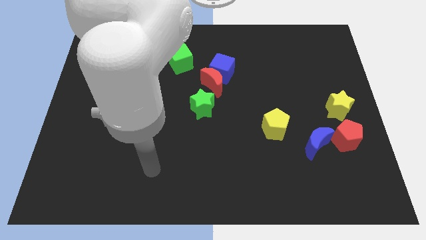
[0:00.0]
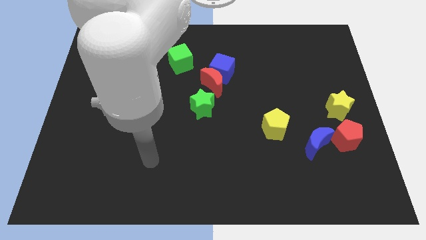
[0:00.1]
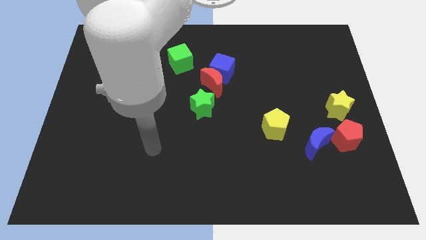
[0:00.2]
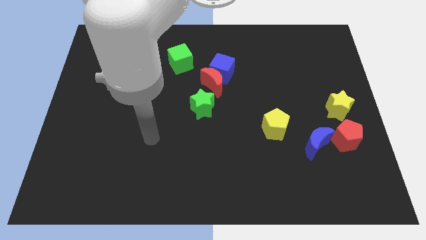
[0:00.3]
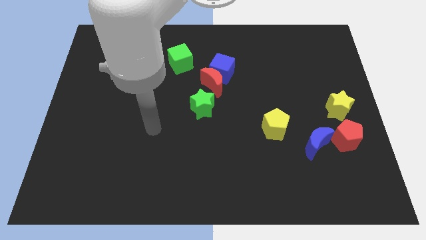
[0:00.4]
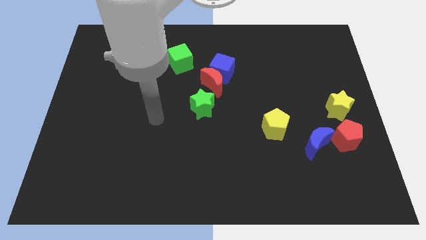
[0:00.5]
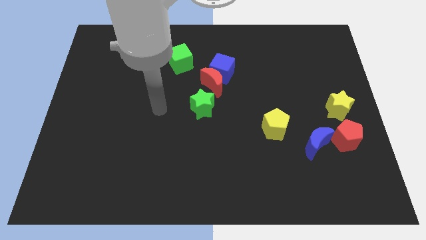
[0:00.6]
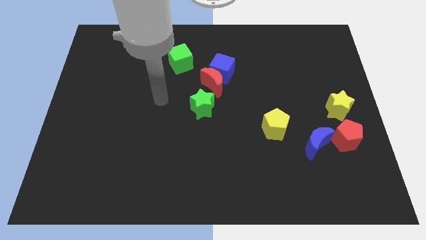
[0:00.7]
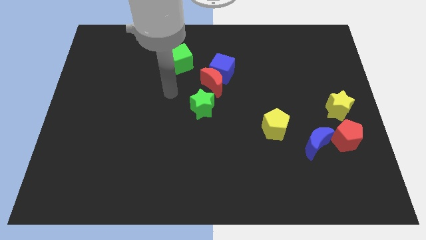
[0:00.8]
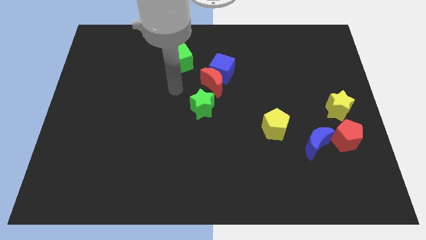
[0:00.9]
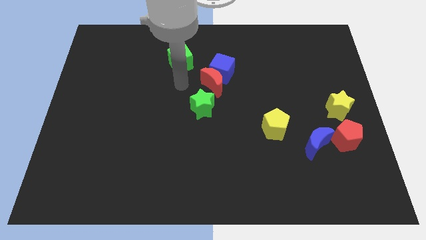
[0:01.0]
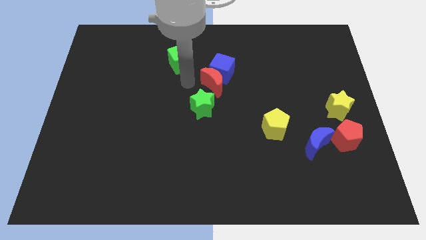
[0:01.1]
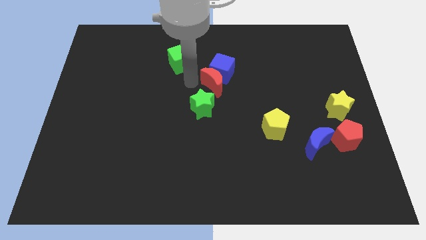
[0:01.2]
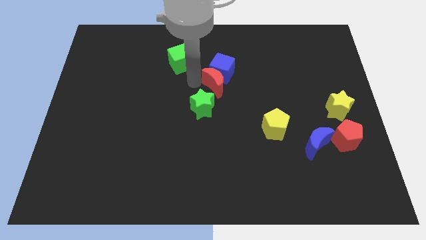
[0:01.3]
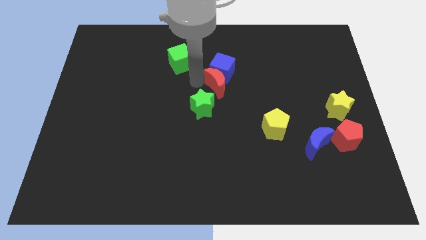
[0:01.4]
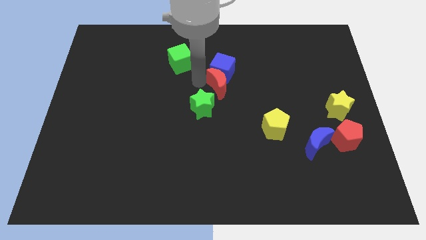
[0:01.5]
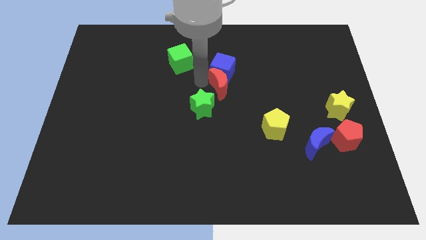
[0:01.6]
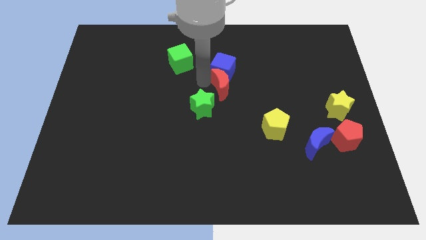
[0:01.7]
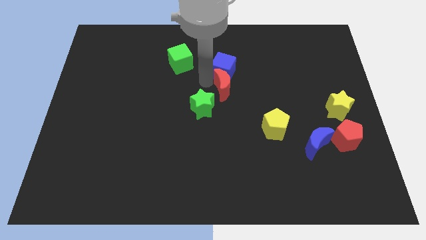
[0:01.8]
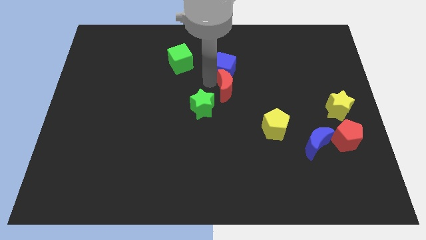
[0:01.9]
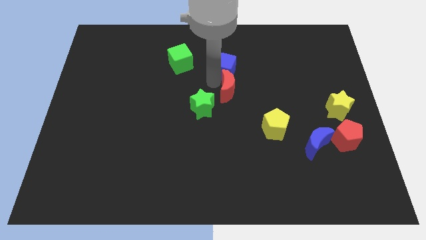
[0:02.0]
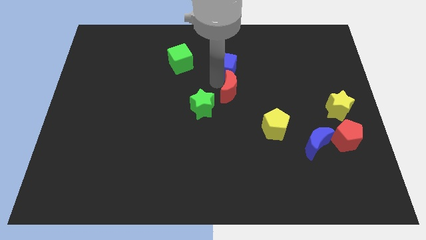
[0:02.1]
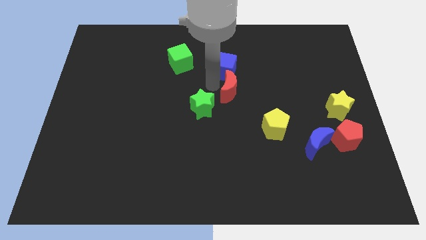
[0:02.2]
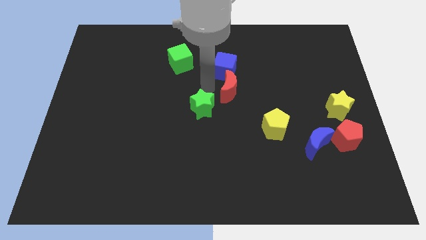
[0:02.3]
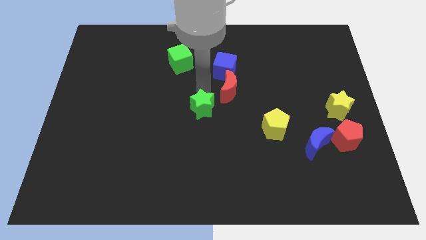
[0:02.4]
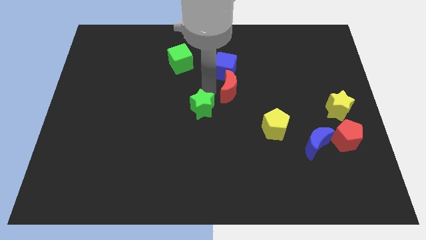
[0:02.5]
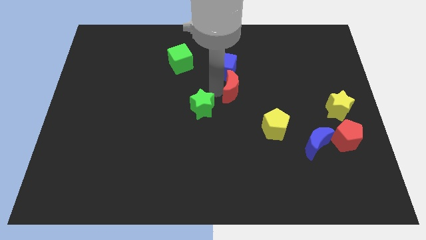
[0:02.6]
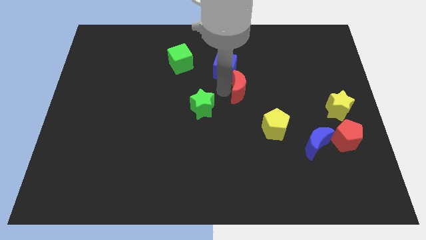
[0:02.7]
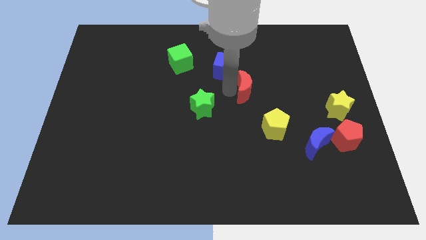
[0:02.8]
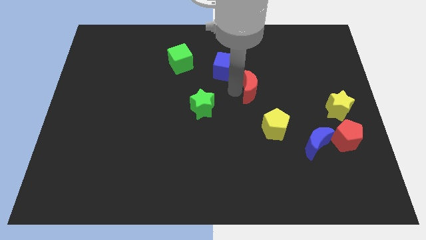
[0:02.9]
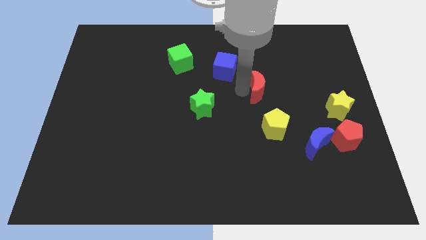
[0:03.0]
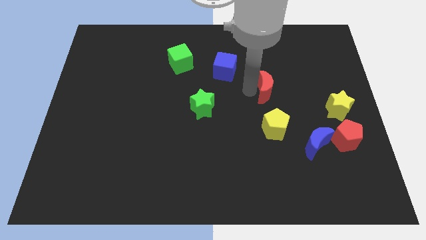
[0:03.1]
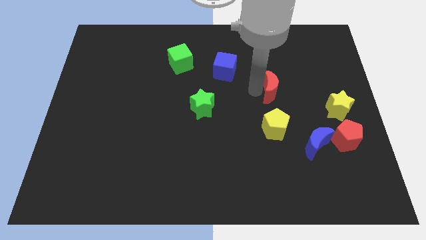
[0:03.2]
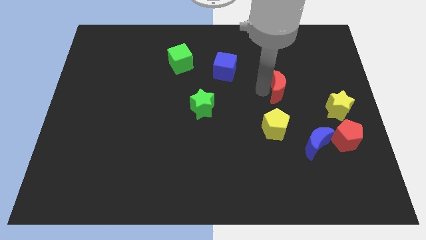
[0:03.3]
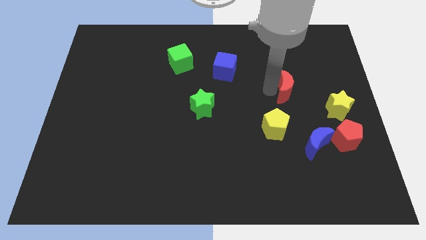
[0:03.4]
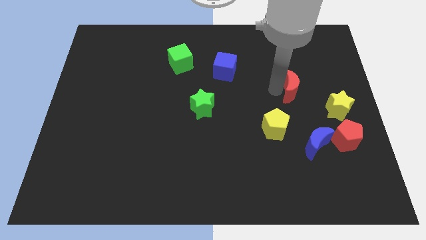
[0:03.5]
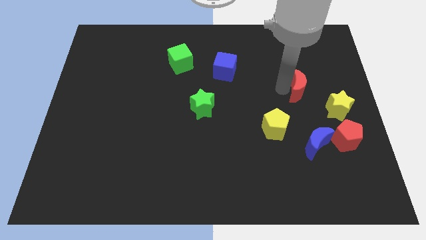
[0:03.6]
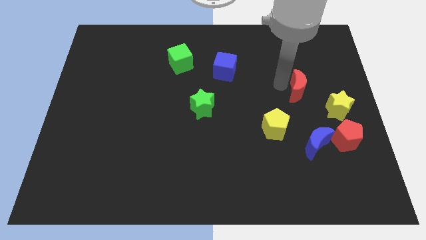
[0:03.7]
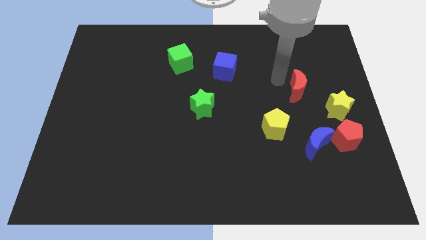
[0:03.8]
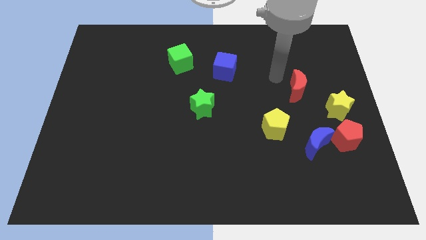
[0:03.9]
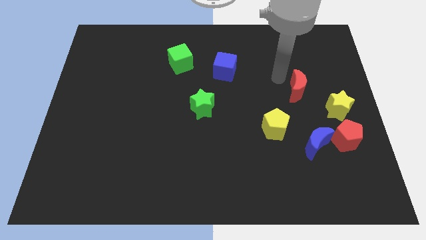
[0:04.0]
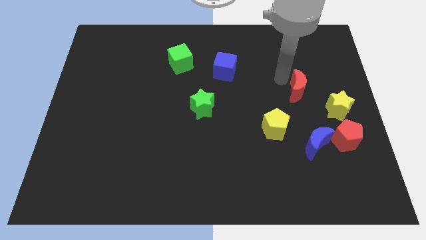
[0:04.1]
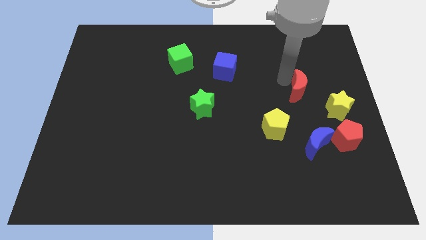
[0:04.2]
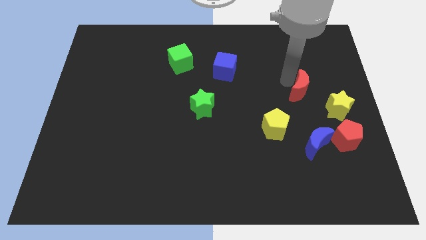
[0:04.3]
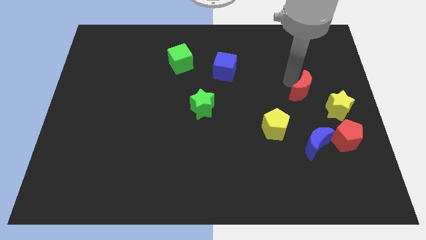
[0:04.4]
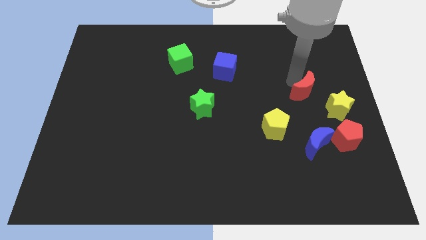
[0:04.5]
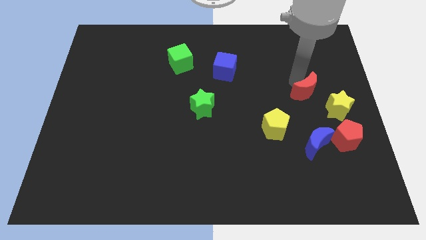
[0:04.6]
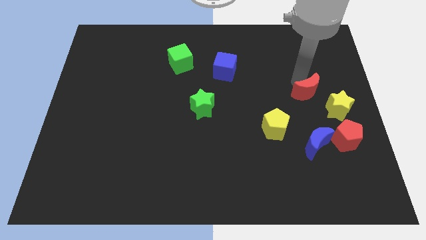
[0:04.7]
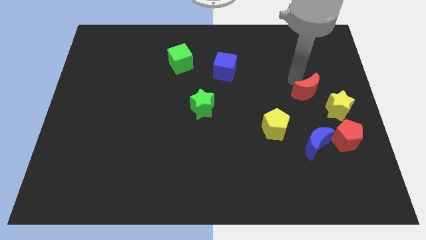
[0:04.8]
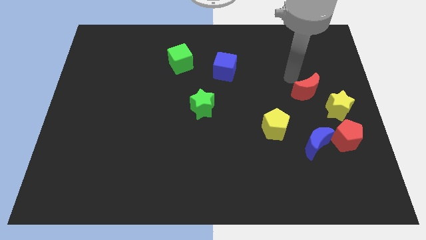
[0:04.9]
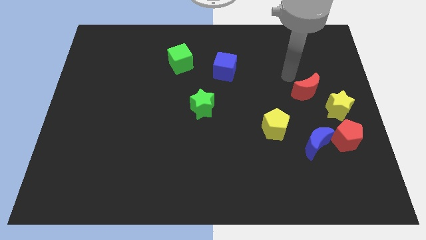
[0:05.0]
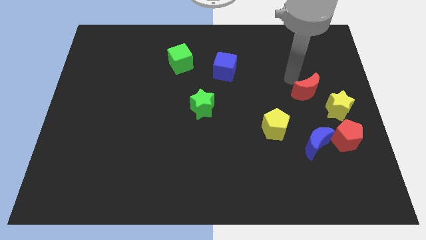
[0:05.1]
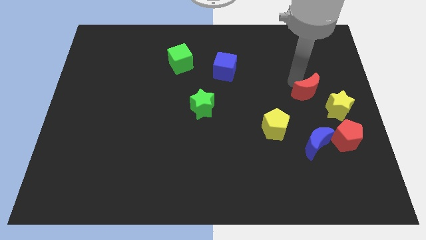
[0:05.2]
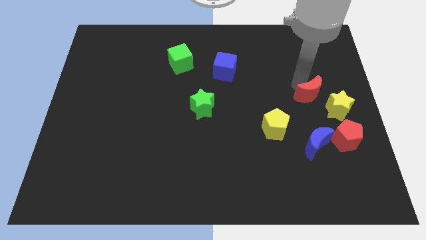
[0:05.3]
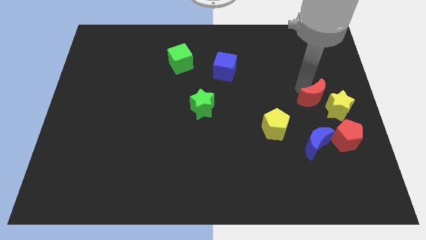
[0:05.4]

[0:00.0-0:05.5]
move the red moon towards the yellow star

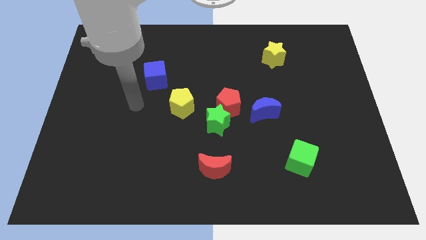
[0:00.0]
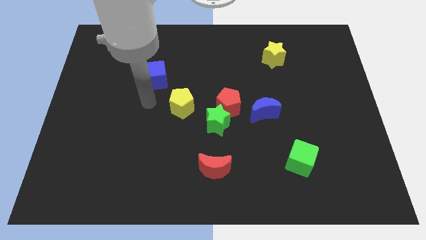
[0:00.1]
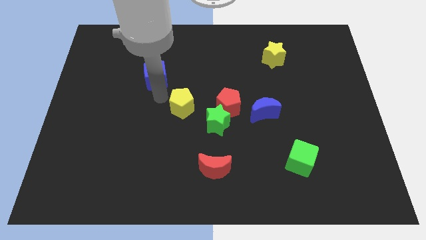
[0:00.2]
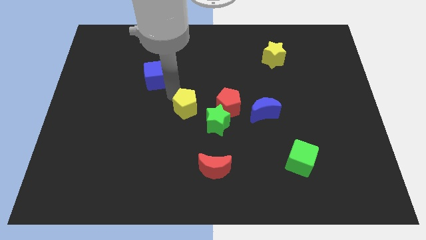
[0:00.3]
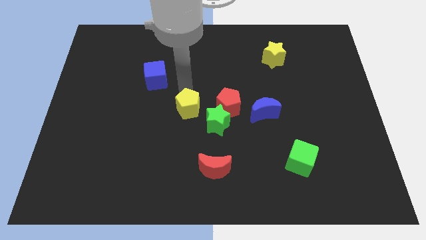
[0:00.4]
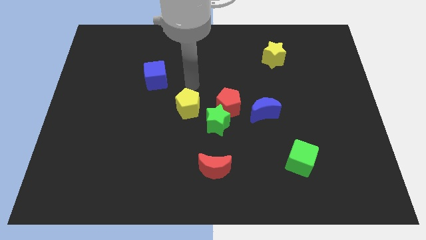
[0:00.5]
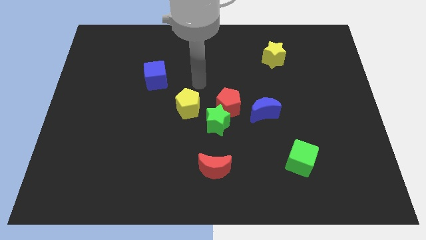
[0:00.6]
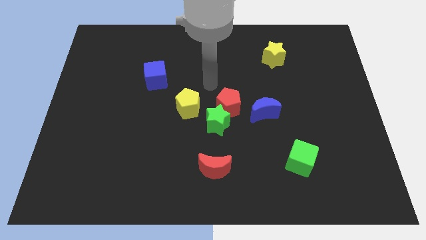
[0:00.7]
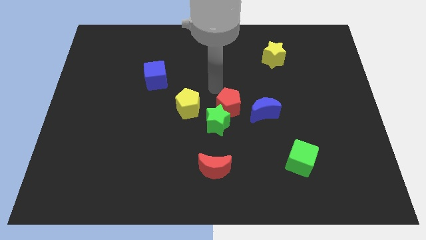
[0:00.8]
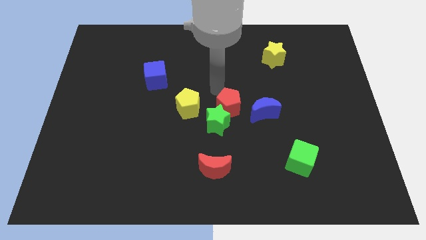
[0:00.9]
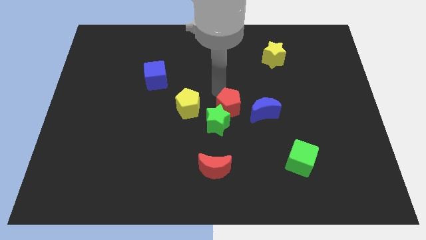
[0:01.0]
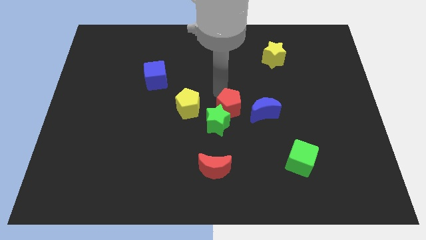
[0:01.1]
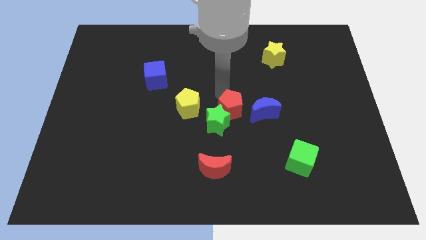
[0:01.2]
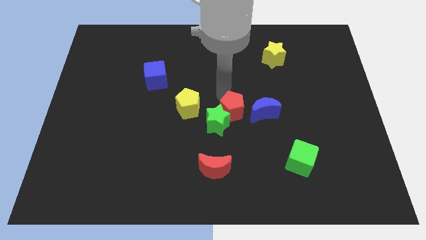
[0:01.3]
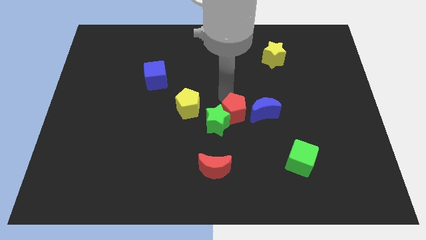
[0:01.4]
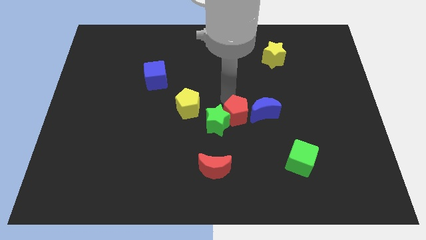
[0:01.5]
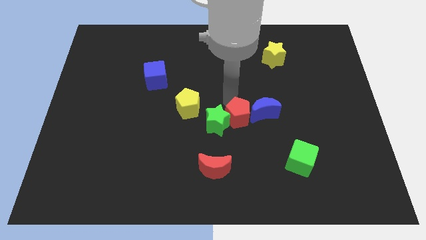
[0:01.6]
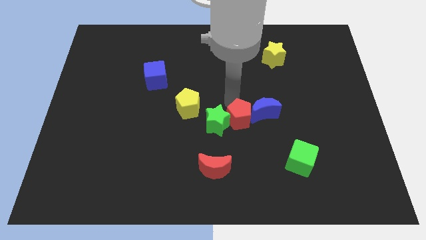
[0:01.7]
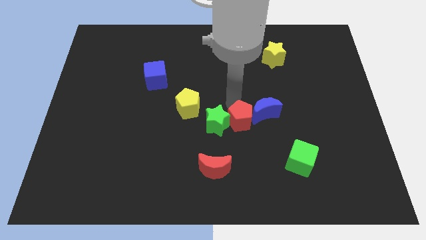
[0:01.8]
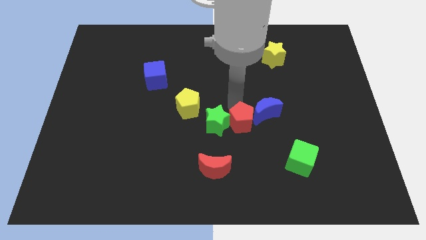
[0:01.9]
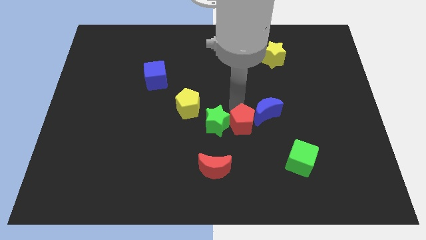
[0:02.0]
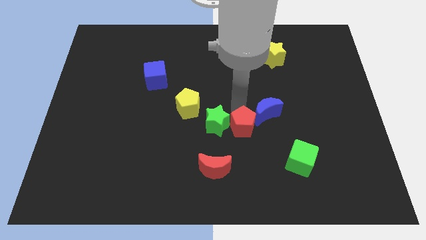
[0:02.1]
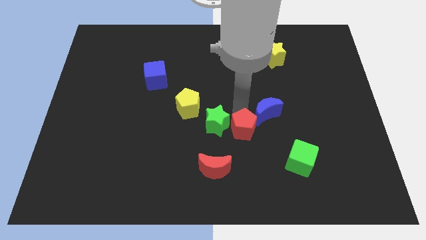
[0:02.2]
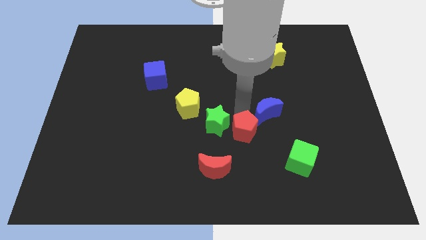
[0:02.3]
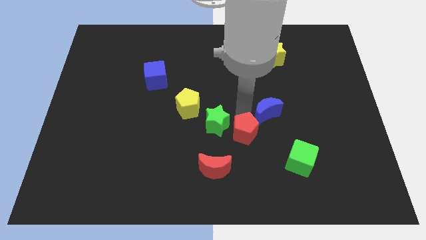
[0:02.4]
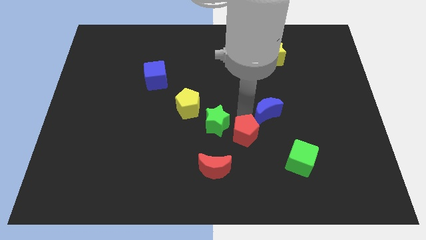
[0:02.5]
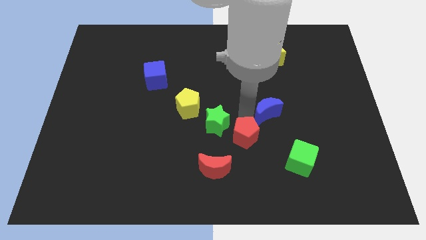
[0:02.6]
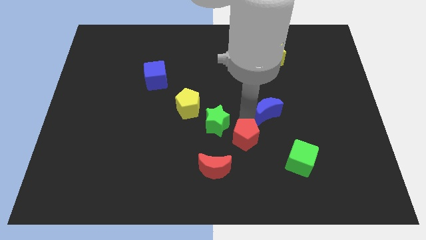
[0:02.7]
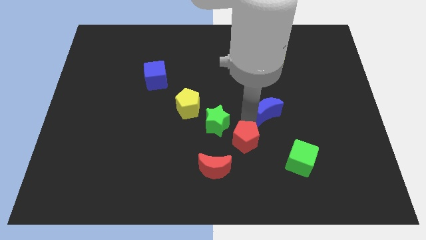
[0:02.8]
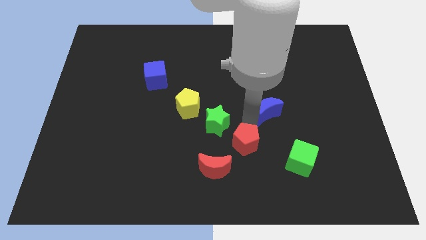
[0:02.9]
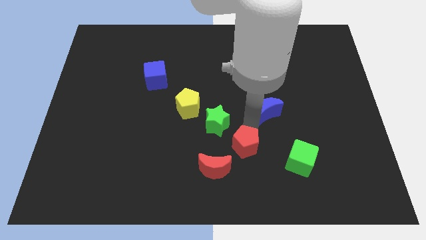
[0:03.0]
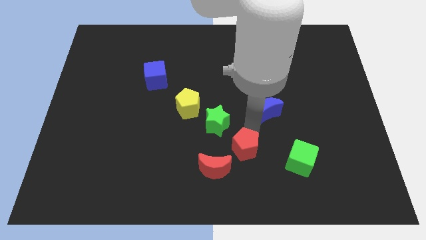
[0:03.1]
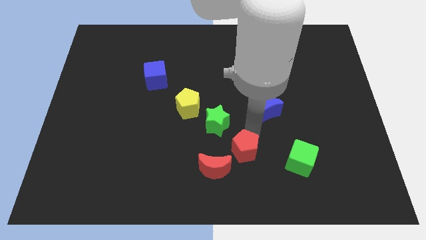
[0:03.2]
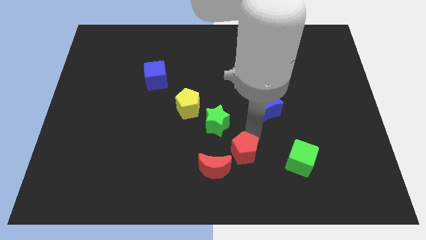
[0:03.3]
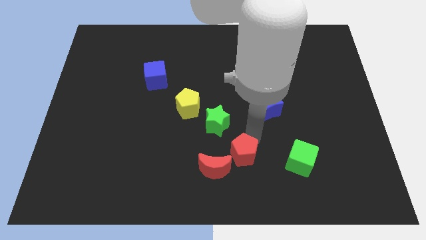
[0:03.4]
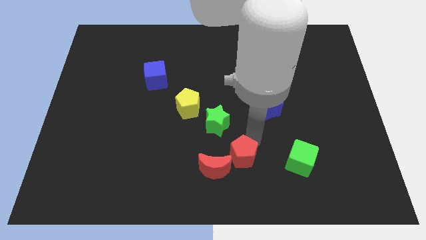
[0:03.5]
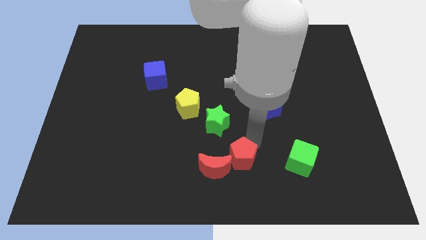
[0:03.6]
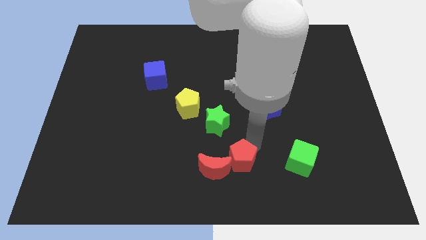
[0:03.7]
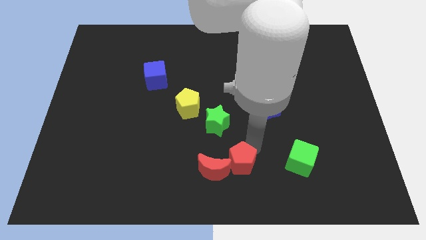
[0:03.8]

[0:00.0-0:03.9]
move the red pentagon next to the red moon
